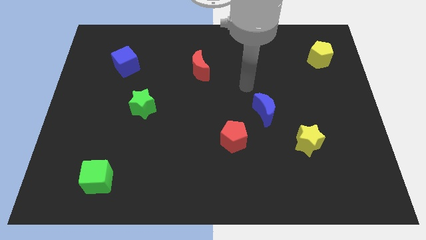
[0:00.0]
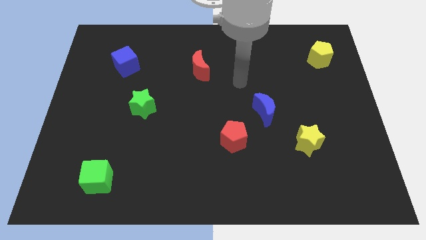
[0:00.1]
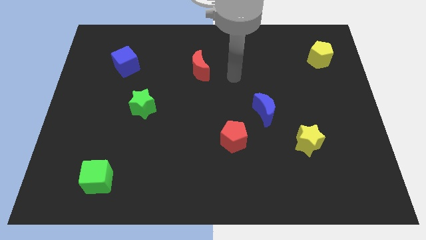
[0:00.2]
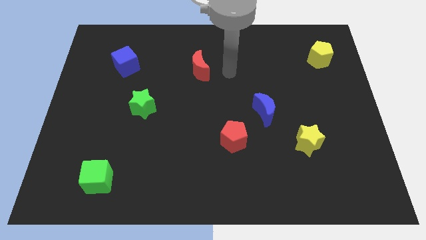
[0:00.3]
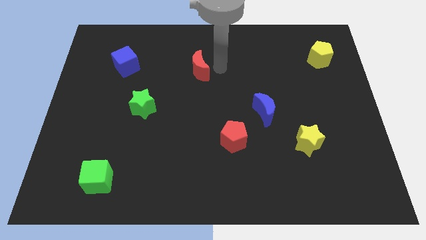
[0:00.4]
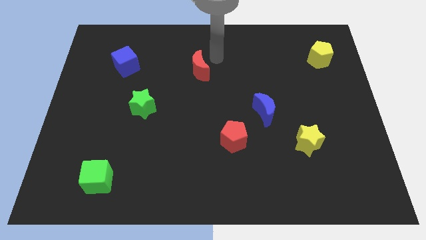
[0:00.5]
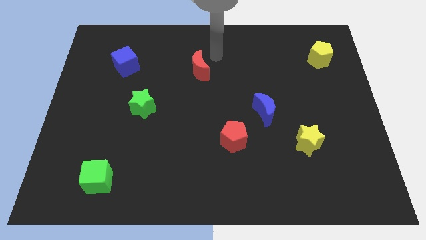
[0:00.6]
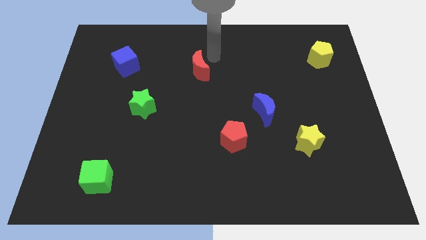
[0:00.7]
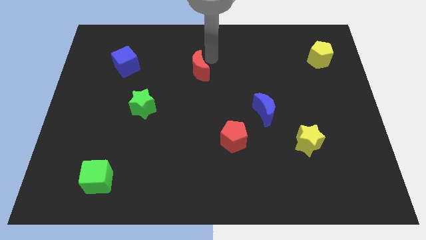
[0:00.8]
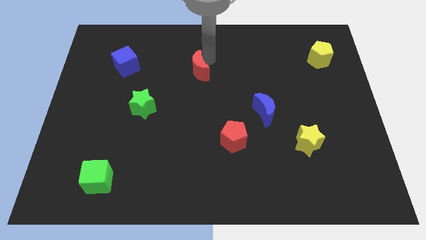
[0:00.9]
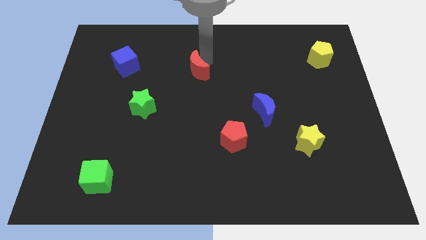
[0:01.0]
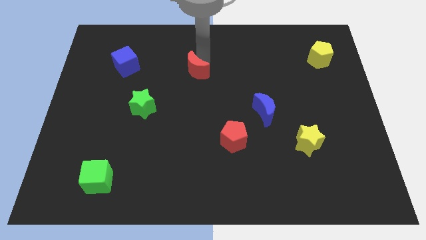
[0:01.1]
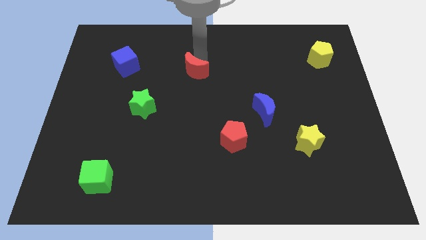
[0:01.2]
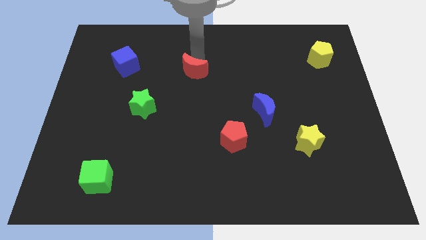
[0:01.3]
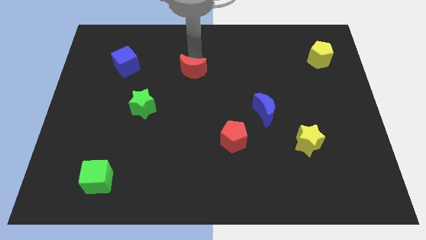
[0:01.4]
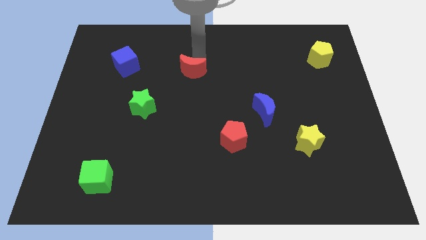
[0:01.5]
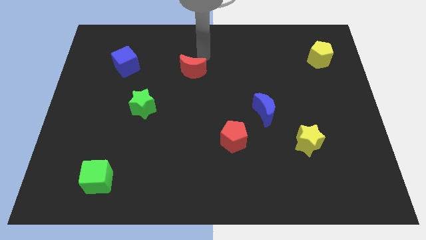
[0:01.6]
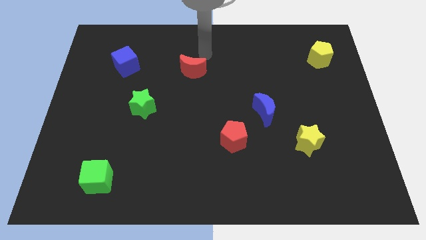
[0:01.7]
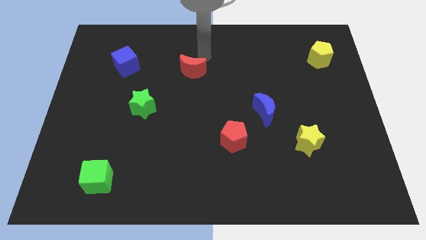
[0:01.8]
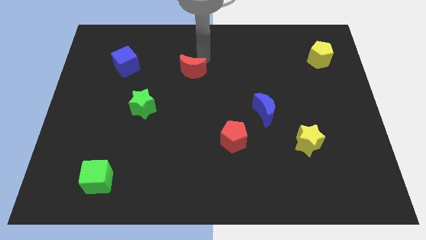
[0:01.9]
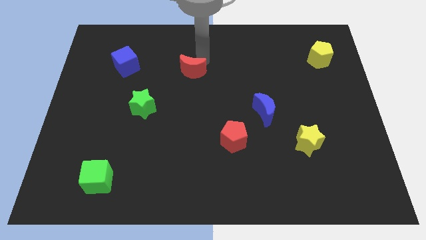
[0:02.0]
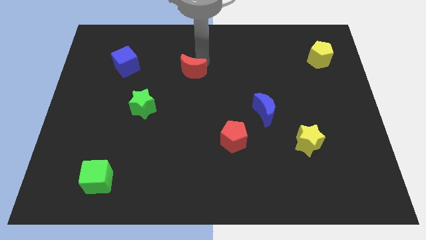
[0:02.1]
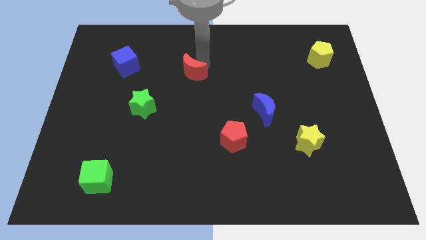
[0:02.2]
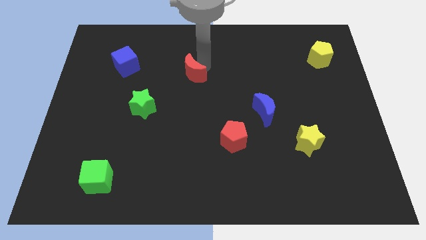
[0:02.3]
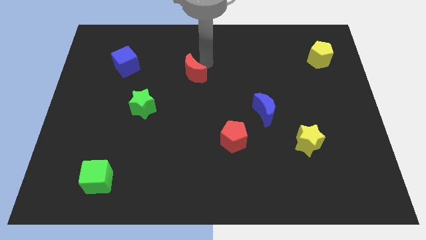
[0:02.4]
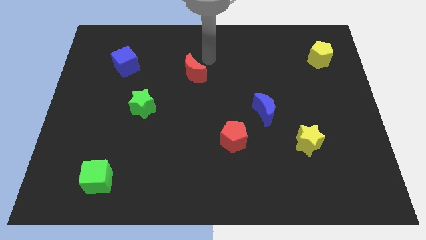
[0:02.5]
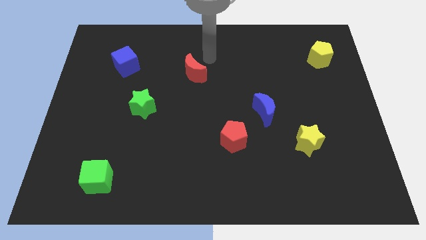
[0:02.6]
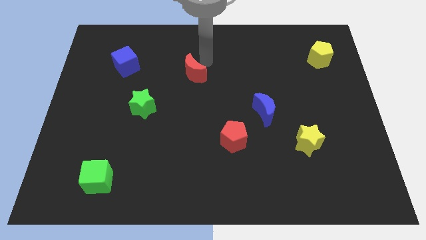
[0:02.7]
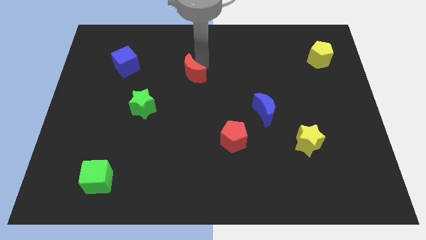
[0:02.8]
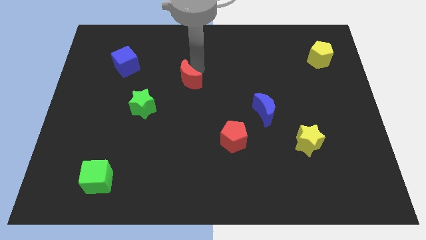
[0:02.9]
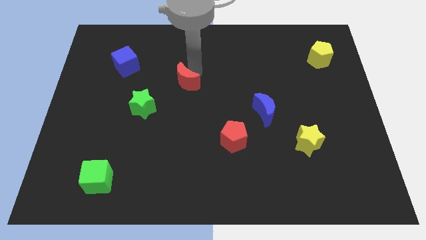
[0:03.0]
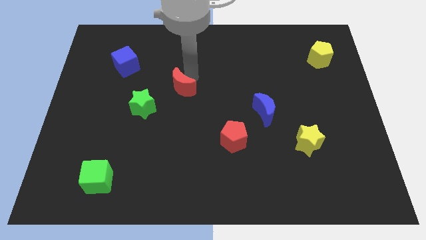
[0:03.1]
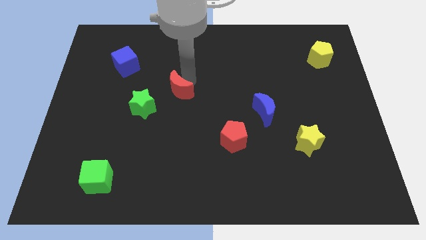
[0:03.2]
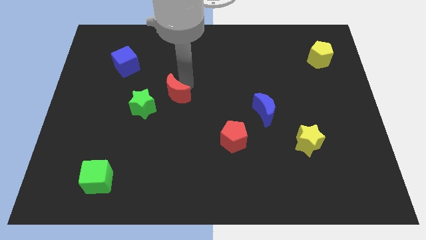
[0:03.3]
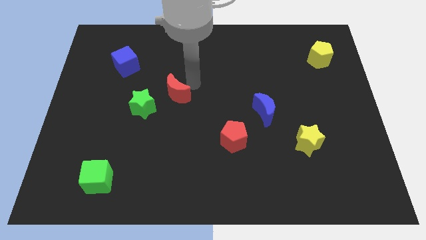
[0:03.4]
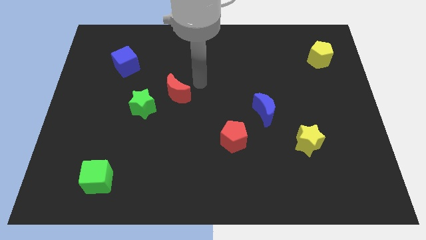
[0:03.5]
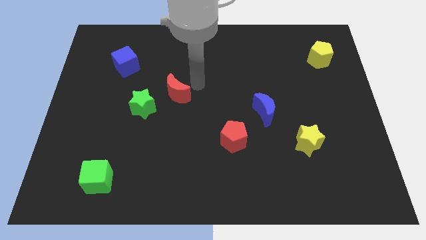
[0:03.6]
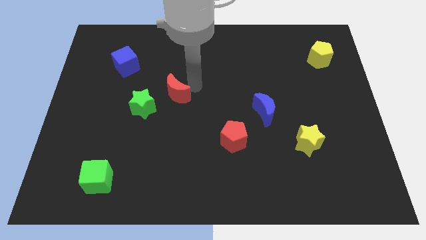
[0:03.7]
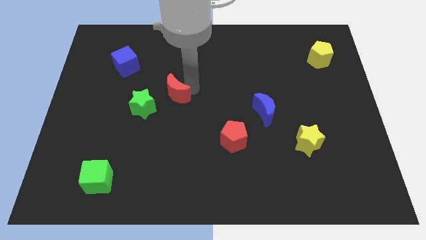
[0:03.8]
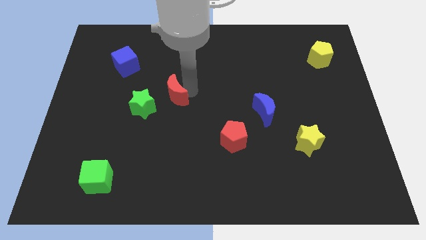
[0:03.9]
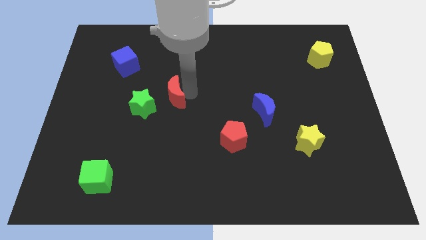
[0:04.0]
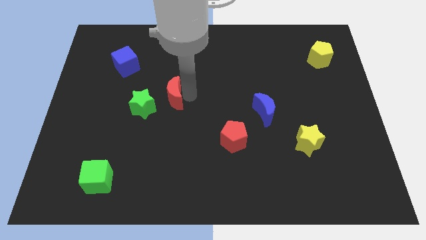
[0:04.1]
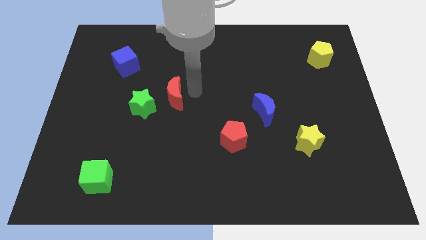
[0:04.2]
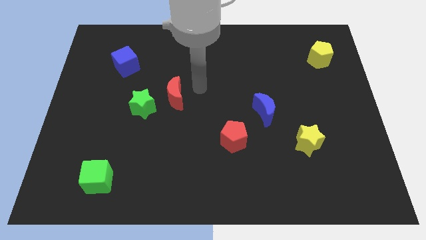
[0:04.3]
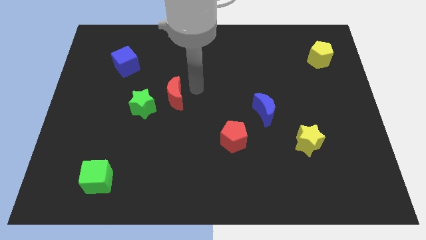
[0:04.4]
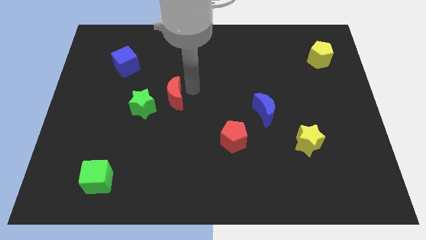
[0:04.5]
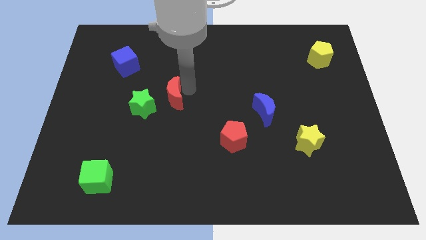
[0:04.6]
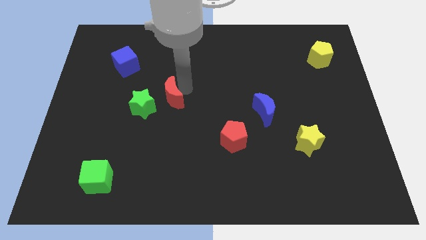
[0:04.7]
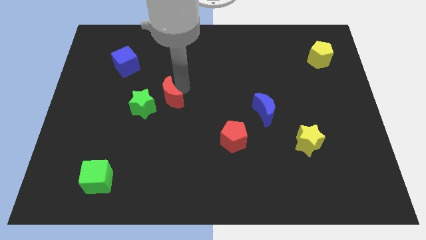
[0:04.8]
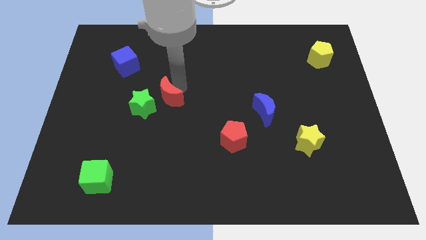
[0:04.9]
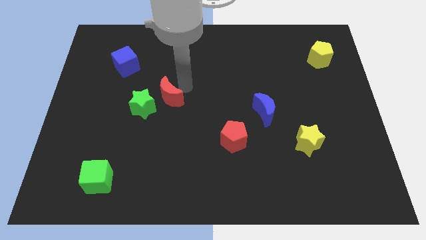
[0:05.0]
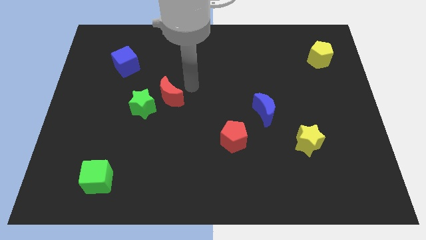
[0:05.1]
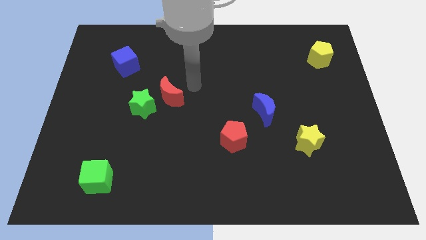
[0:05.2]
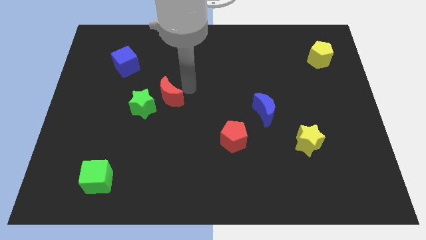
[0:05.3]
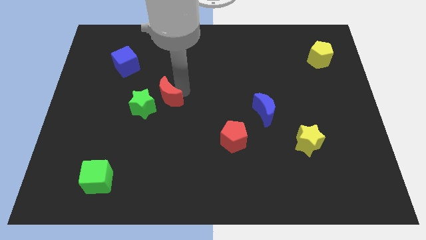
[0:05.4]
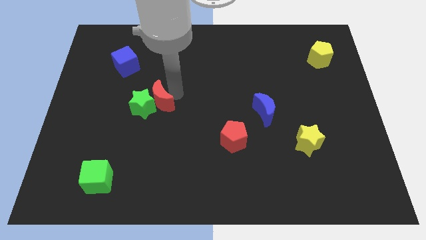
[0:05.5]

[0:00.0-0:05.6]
push the red moon next to the green star

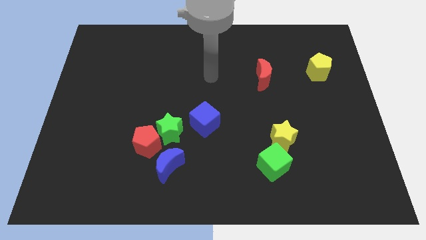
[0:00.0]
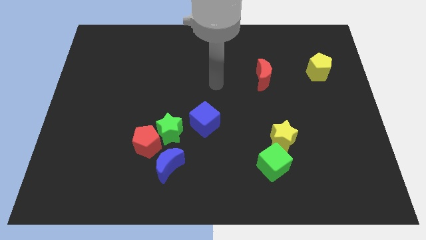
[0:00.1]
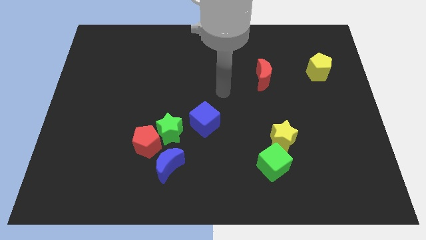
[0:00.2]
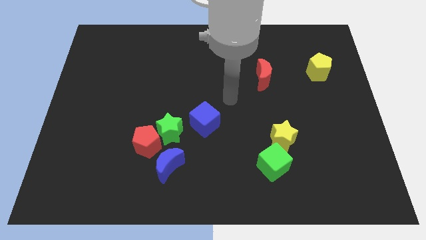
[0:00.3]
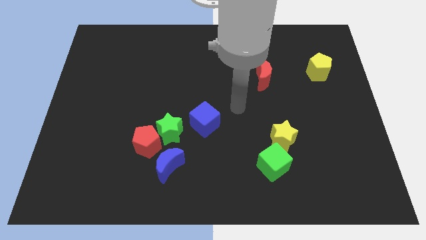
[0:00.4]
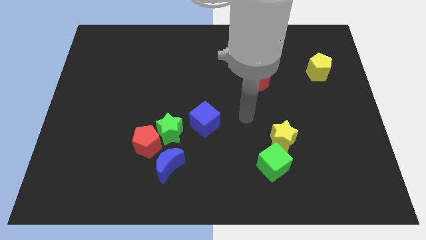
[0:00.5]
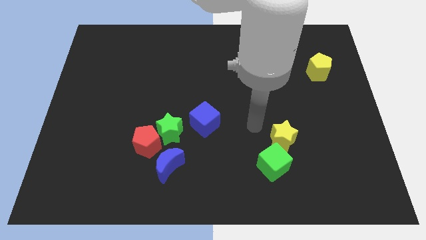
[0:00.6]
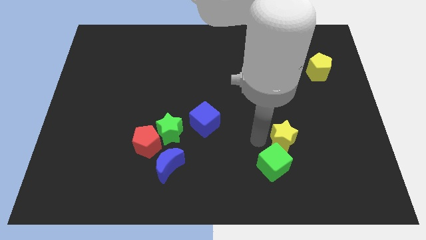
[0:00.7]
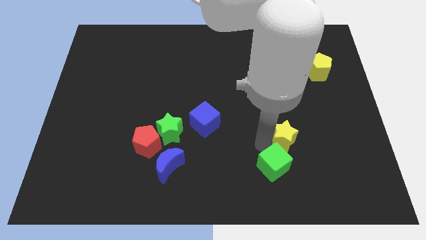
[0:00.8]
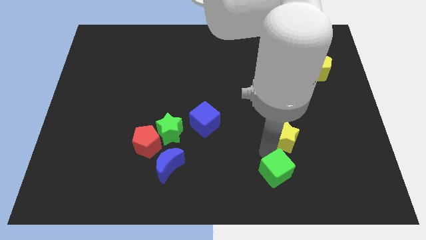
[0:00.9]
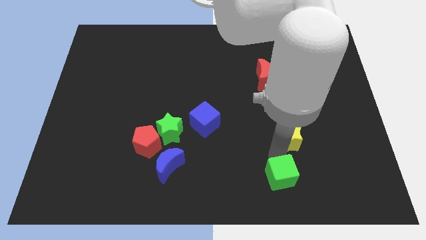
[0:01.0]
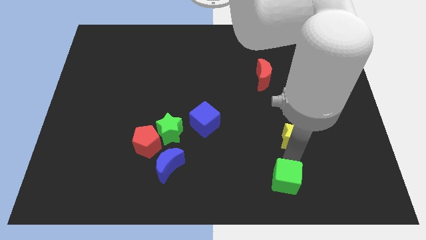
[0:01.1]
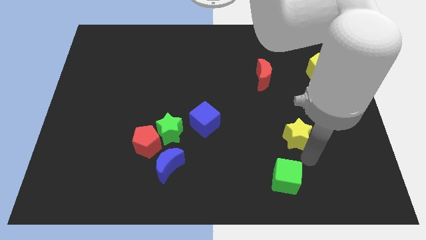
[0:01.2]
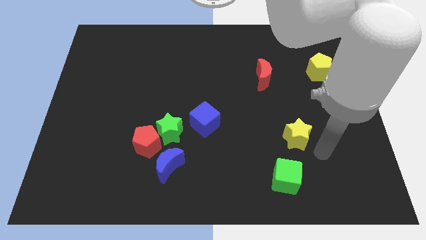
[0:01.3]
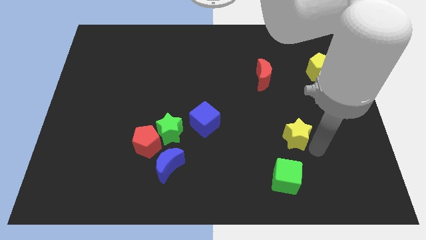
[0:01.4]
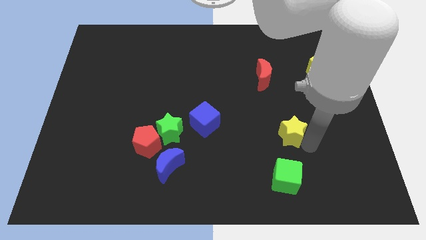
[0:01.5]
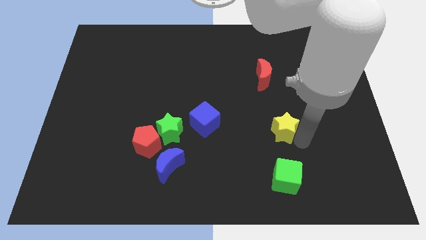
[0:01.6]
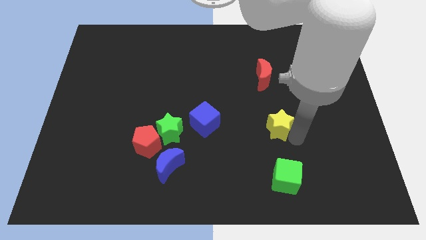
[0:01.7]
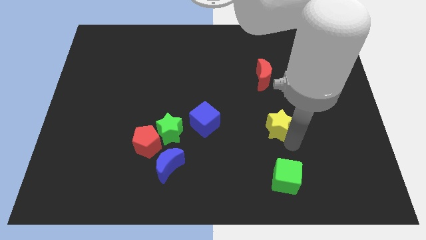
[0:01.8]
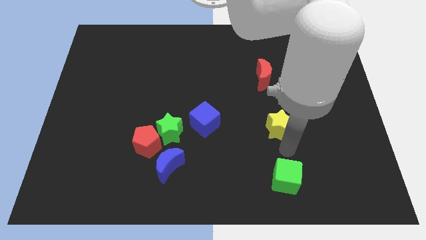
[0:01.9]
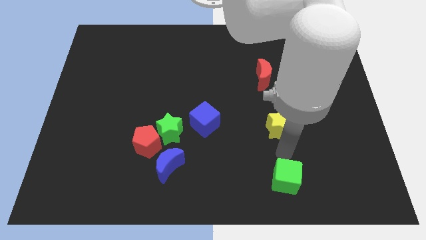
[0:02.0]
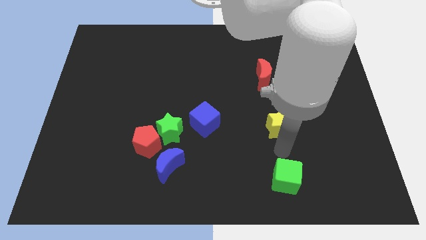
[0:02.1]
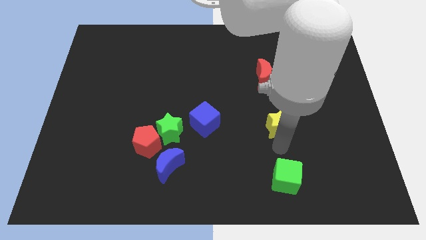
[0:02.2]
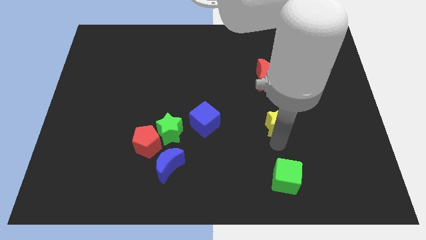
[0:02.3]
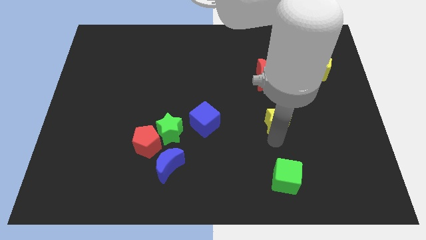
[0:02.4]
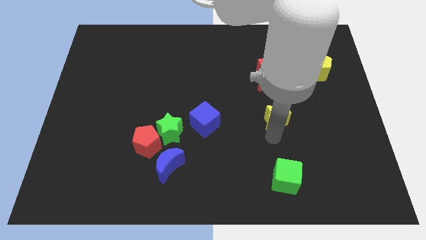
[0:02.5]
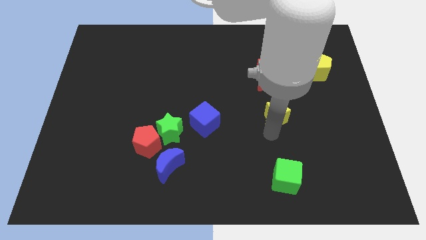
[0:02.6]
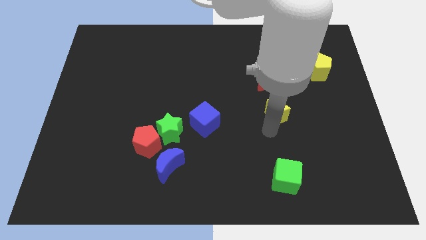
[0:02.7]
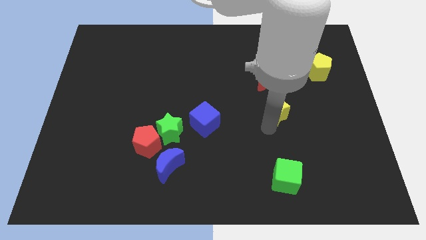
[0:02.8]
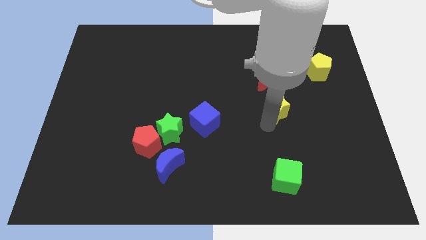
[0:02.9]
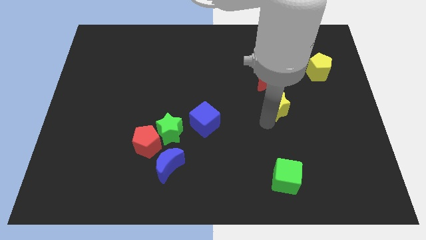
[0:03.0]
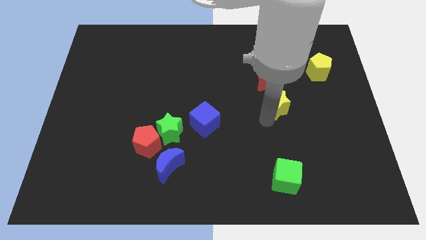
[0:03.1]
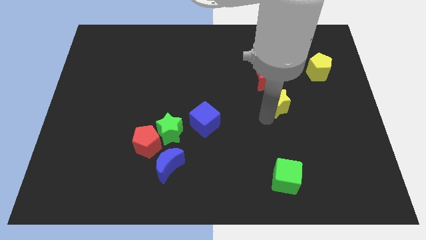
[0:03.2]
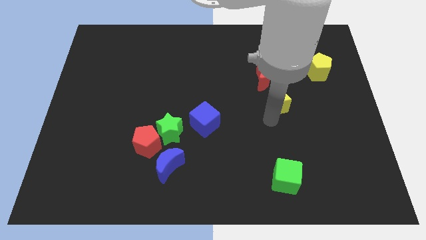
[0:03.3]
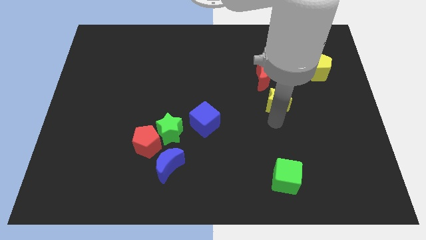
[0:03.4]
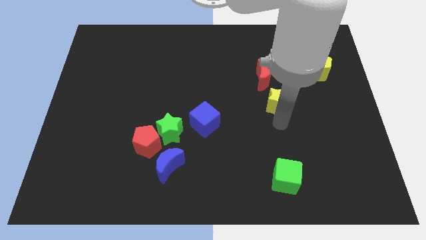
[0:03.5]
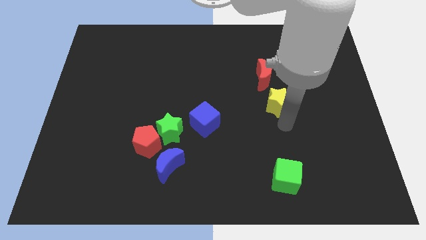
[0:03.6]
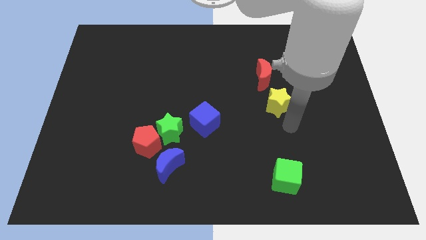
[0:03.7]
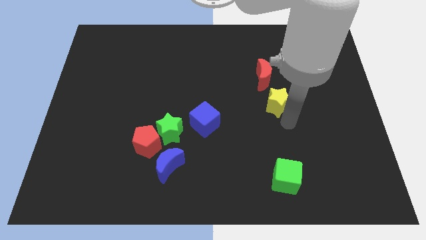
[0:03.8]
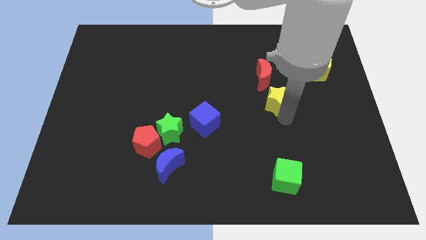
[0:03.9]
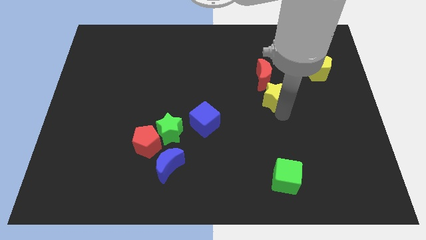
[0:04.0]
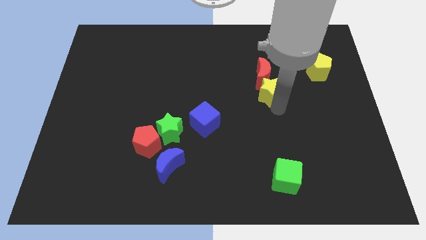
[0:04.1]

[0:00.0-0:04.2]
slide the yellow star next to the red moon
